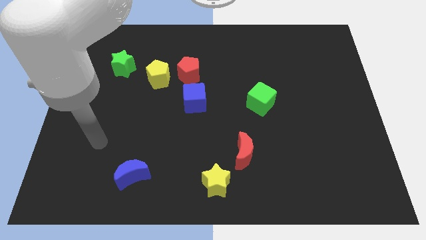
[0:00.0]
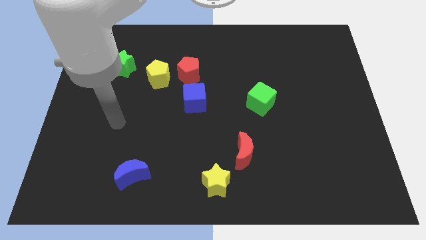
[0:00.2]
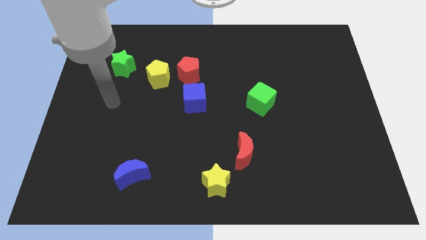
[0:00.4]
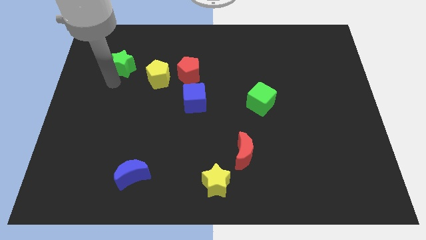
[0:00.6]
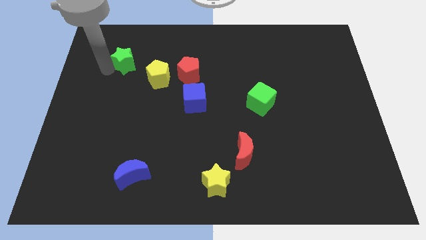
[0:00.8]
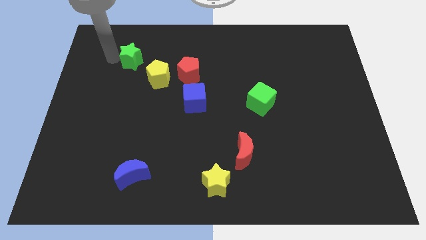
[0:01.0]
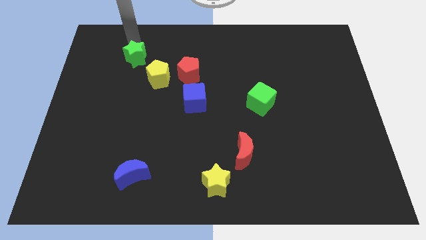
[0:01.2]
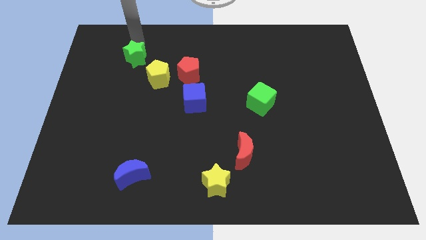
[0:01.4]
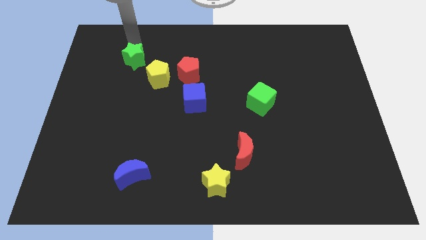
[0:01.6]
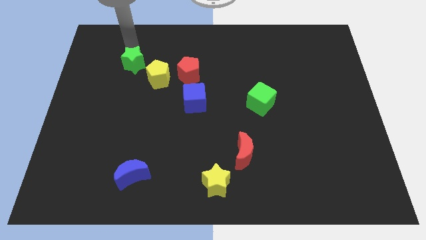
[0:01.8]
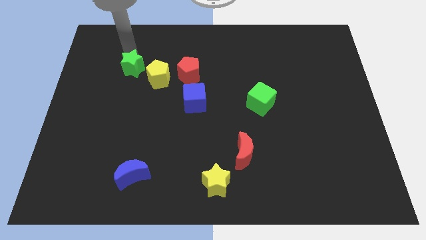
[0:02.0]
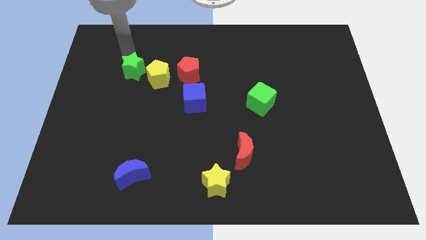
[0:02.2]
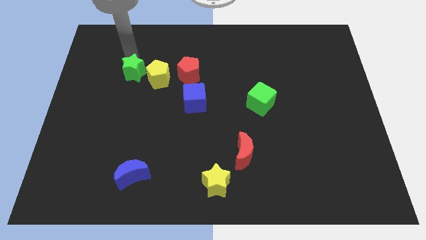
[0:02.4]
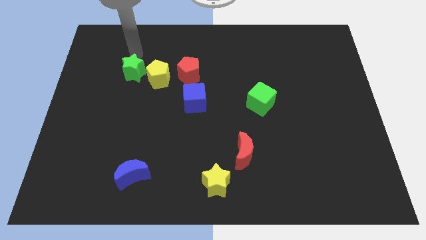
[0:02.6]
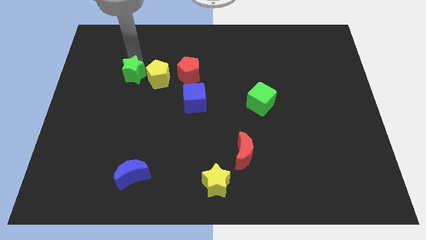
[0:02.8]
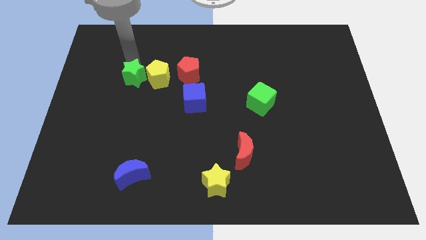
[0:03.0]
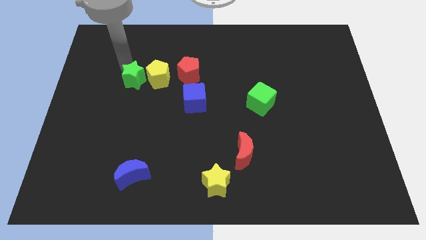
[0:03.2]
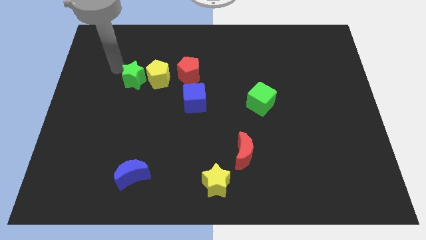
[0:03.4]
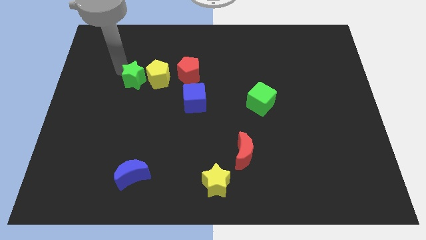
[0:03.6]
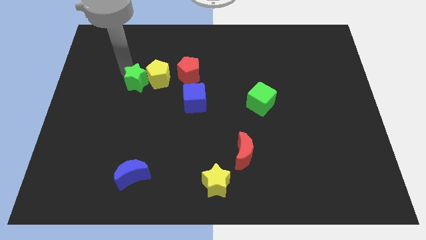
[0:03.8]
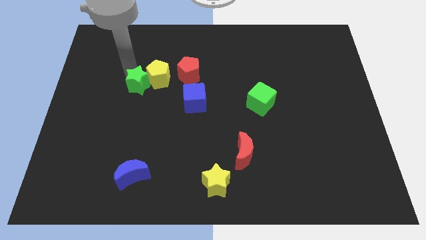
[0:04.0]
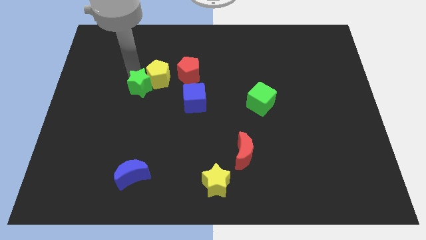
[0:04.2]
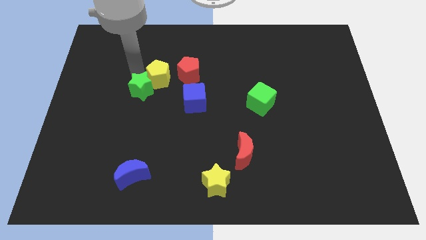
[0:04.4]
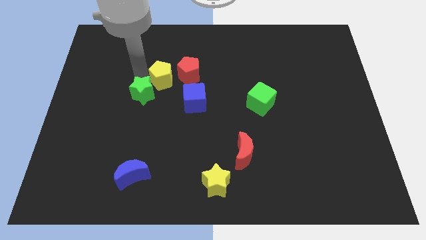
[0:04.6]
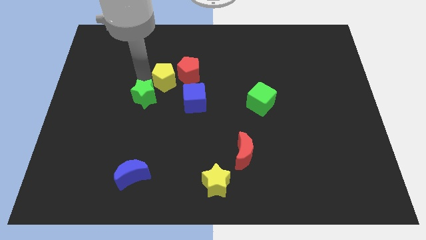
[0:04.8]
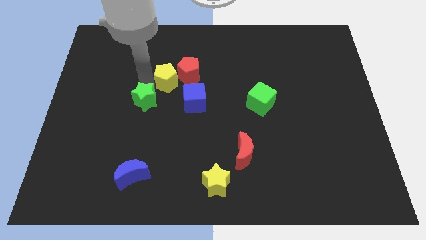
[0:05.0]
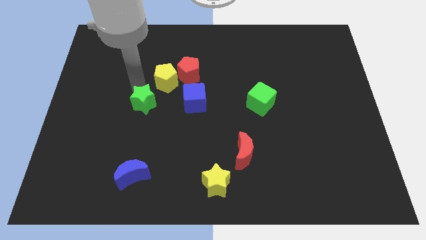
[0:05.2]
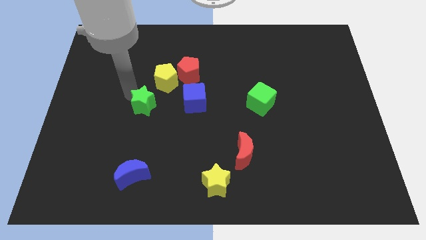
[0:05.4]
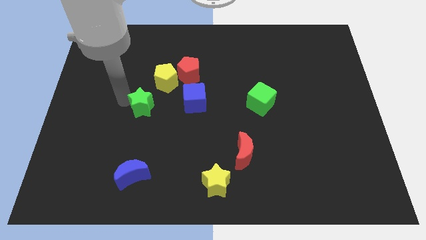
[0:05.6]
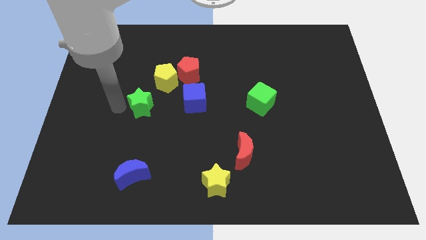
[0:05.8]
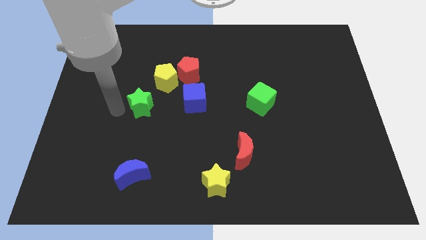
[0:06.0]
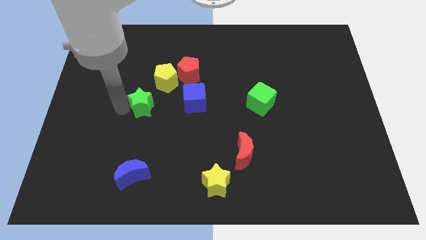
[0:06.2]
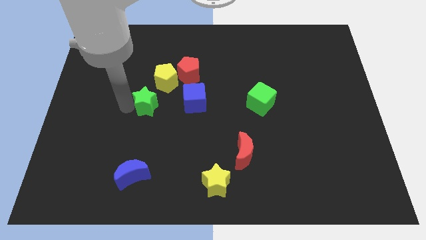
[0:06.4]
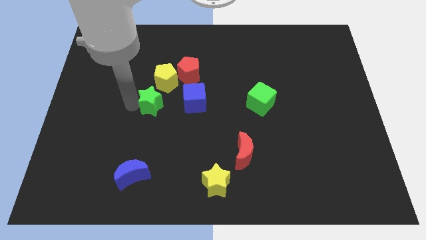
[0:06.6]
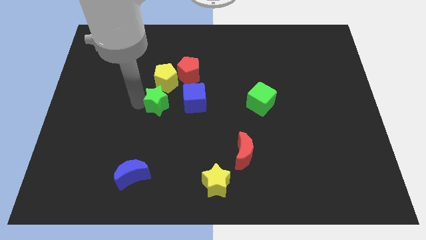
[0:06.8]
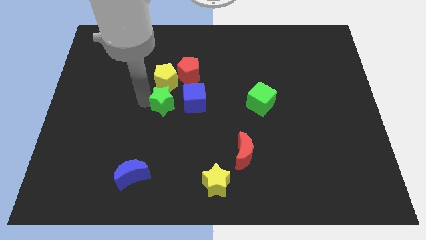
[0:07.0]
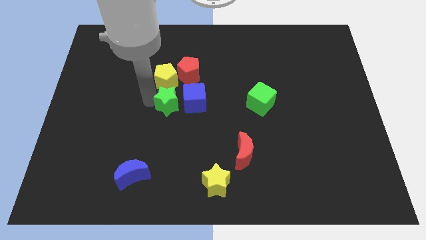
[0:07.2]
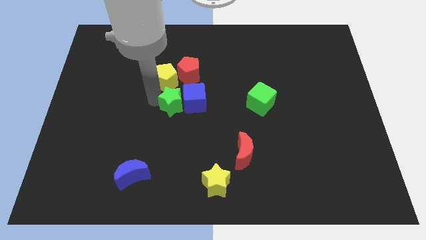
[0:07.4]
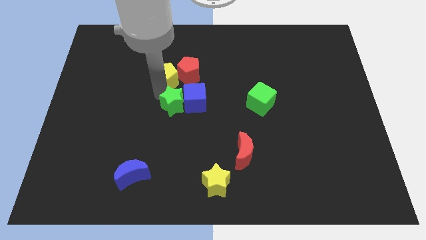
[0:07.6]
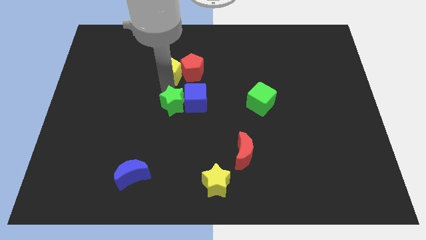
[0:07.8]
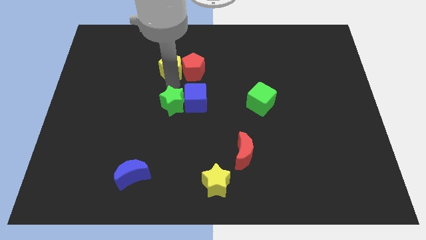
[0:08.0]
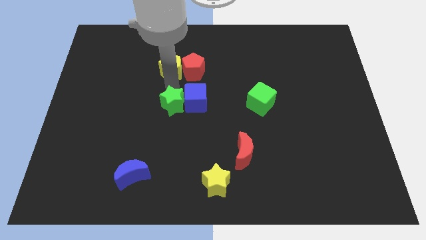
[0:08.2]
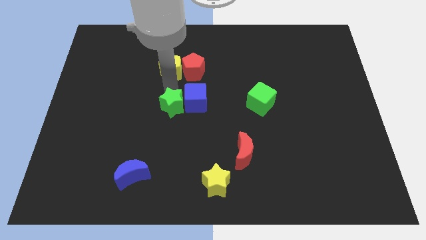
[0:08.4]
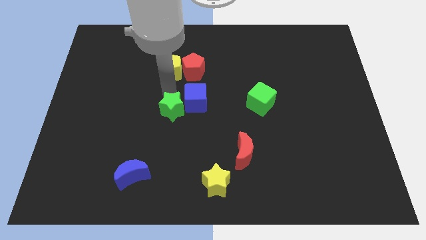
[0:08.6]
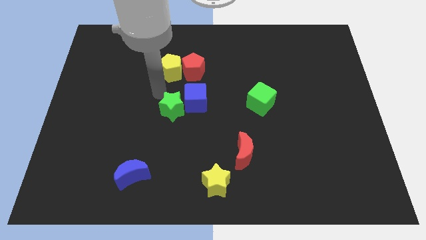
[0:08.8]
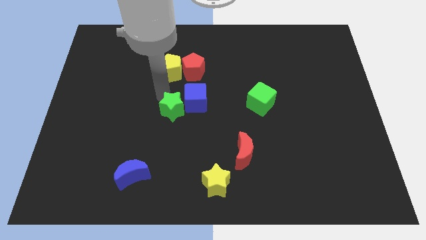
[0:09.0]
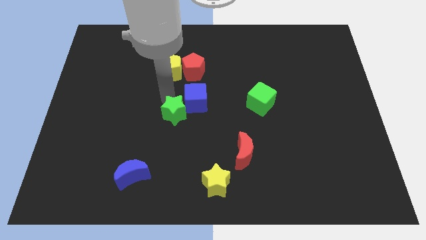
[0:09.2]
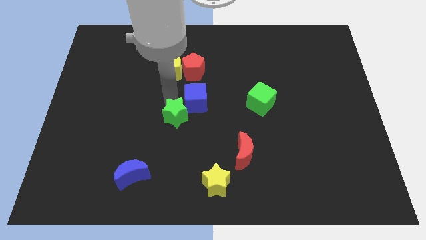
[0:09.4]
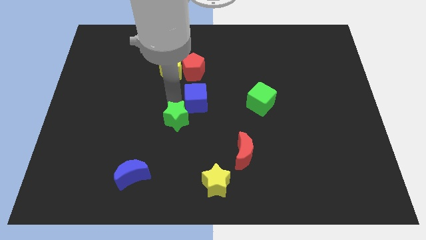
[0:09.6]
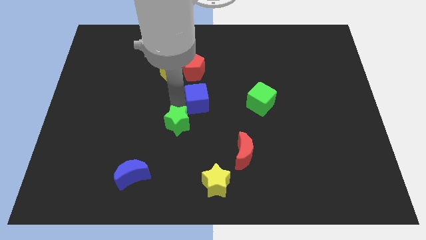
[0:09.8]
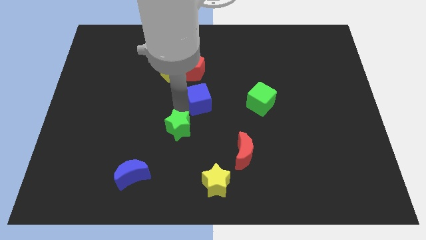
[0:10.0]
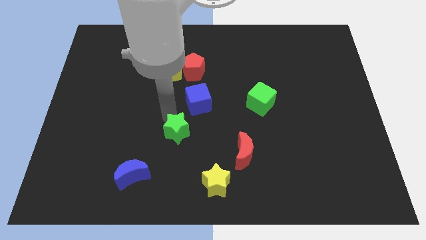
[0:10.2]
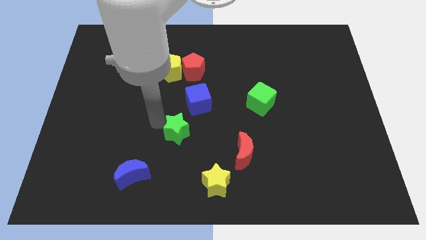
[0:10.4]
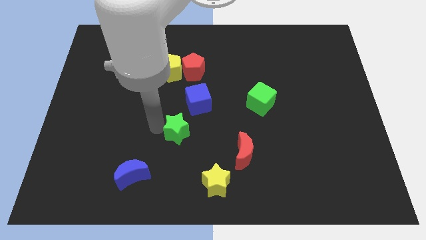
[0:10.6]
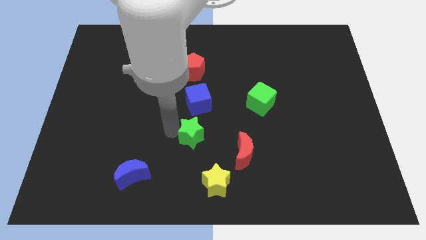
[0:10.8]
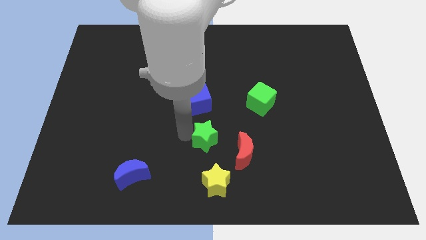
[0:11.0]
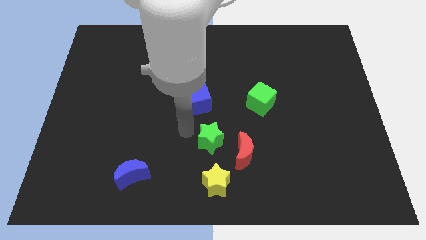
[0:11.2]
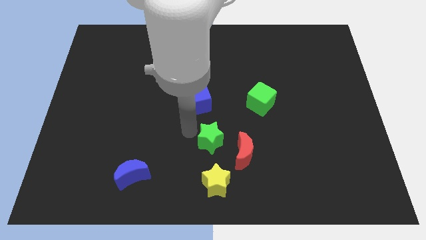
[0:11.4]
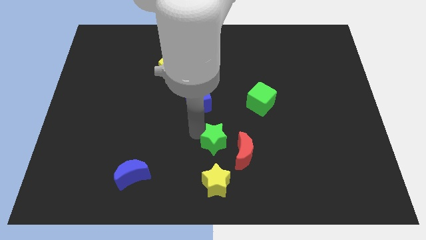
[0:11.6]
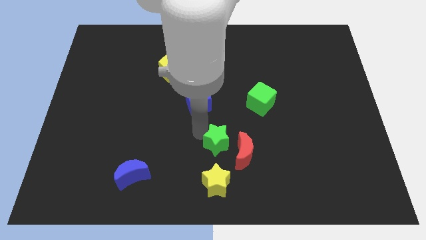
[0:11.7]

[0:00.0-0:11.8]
put the green star to the red moon

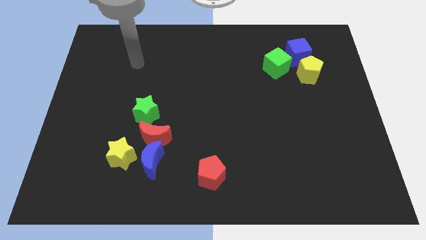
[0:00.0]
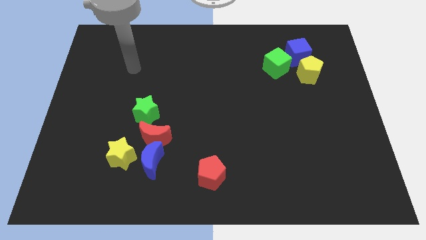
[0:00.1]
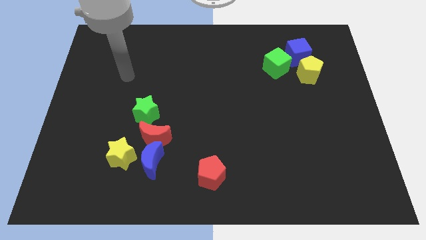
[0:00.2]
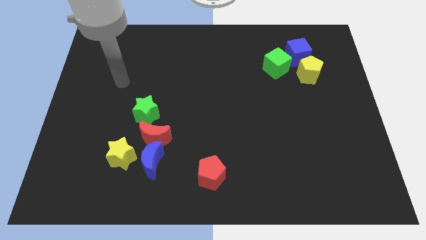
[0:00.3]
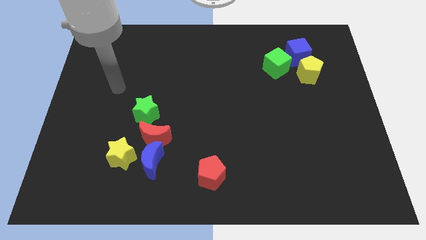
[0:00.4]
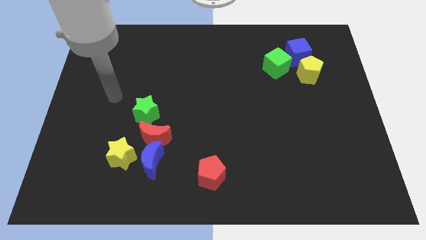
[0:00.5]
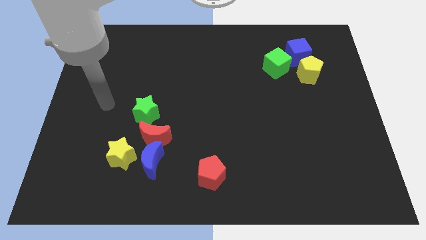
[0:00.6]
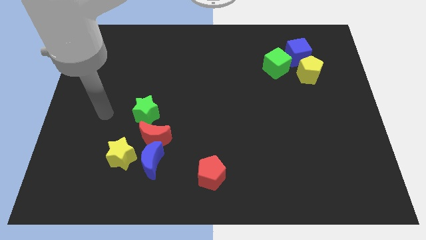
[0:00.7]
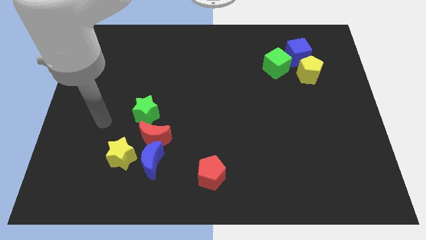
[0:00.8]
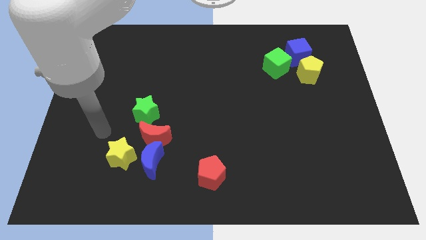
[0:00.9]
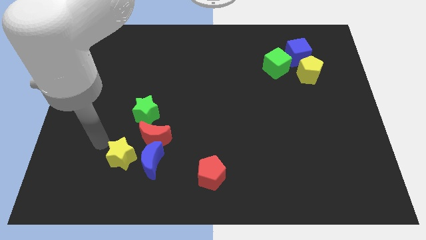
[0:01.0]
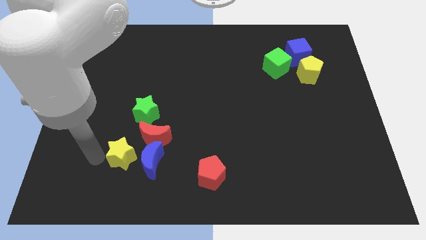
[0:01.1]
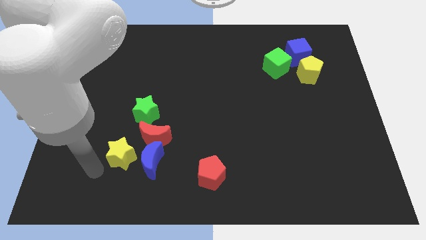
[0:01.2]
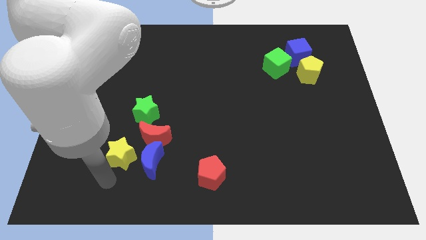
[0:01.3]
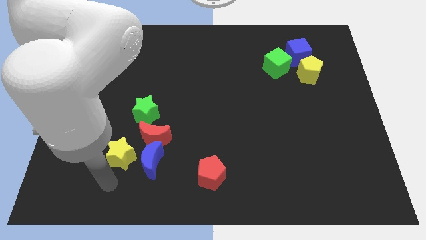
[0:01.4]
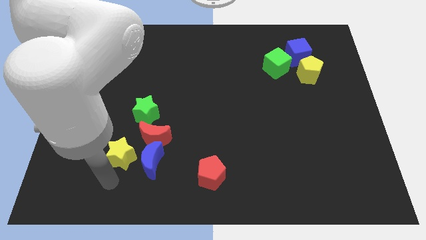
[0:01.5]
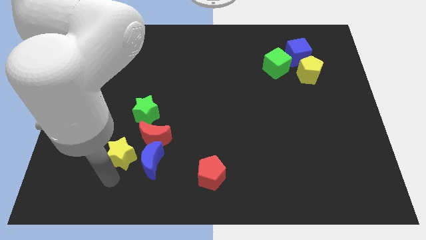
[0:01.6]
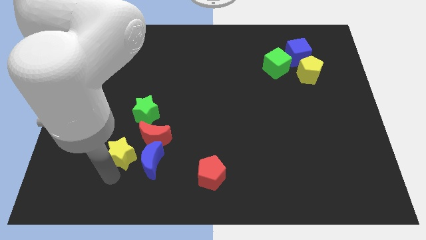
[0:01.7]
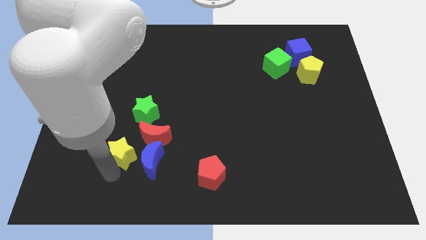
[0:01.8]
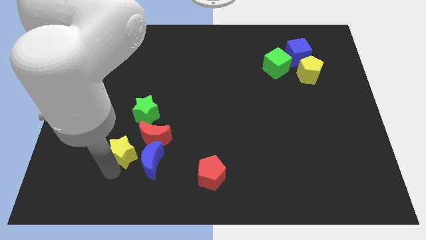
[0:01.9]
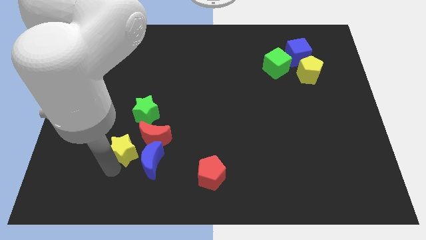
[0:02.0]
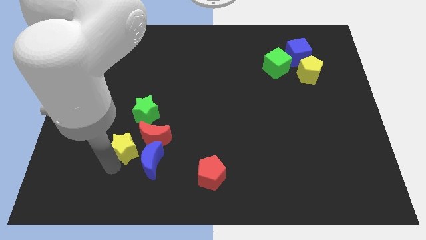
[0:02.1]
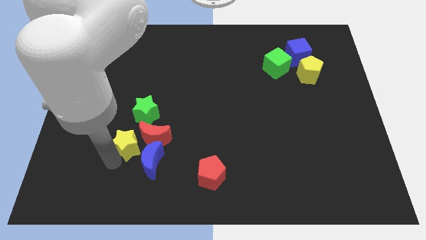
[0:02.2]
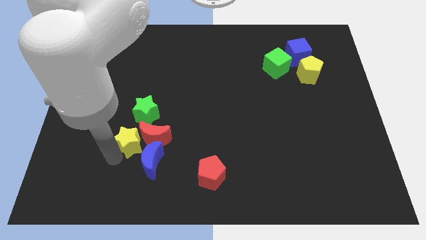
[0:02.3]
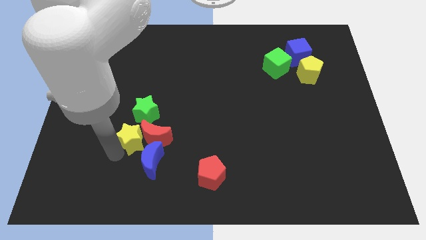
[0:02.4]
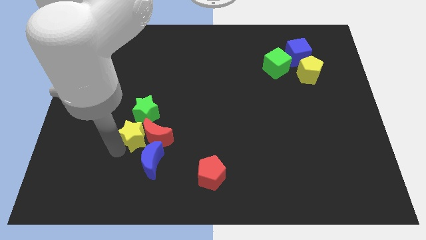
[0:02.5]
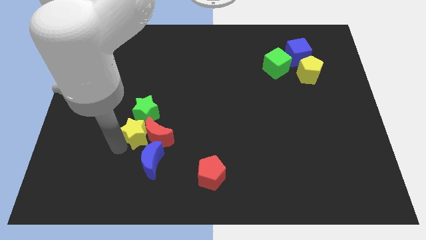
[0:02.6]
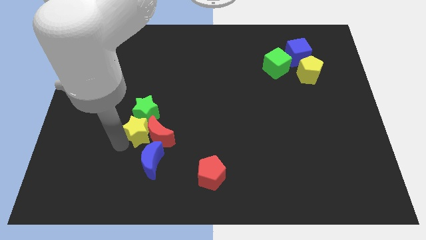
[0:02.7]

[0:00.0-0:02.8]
move the yellow star to the green star
